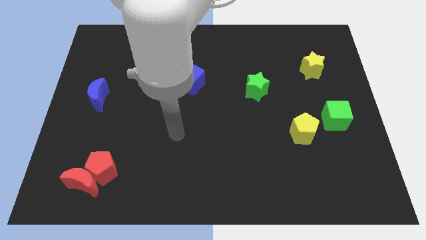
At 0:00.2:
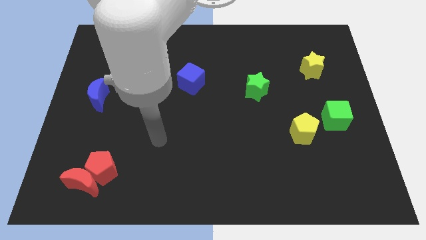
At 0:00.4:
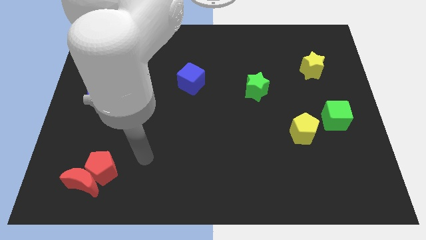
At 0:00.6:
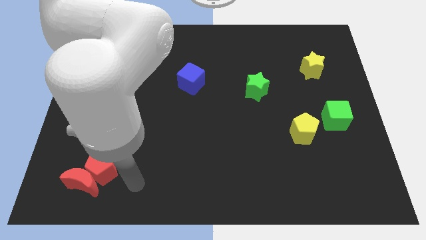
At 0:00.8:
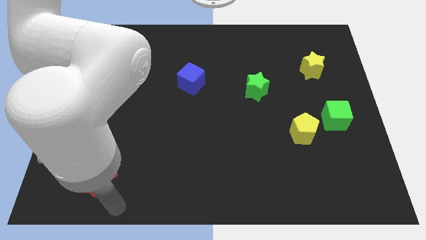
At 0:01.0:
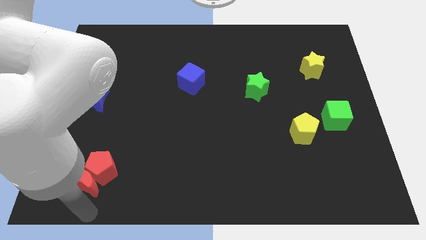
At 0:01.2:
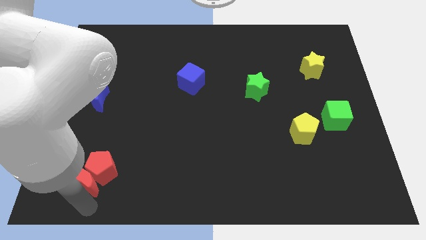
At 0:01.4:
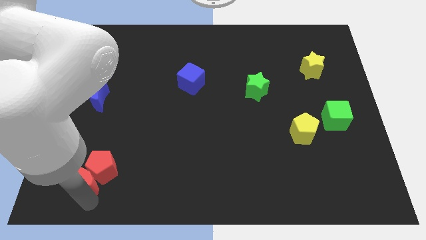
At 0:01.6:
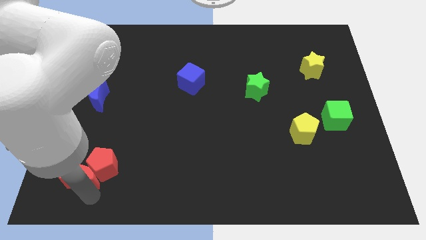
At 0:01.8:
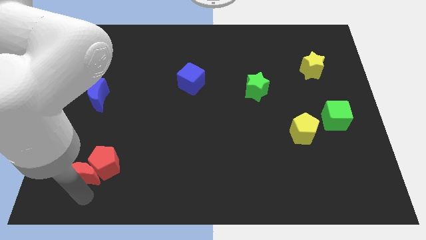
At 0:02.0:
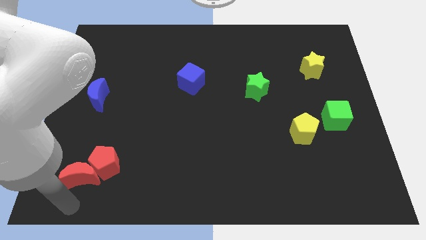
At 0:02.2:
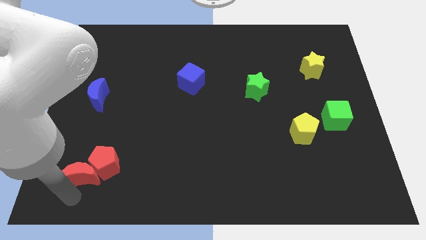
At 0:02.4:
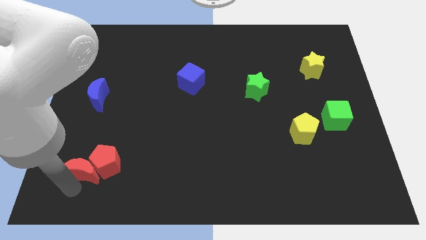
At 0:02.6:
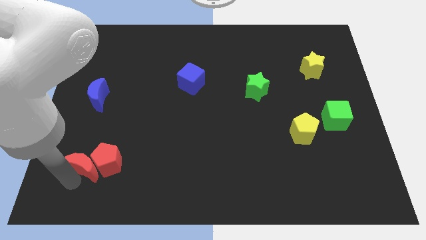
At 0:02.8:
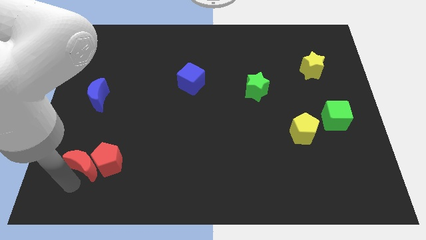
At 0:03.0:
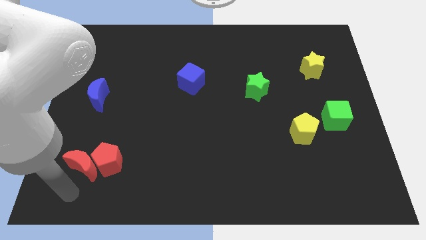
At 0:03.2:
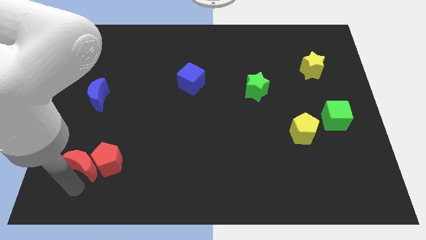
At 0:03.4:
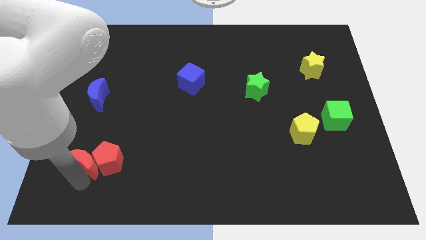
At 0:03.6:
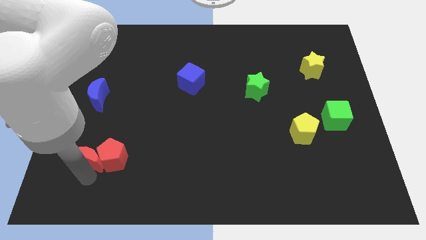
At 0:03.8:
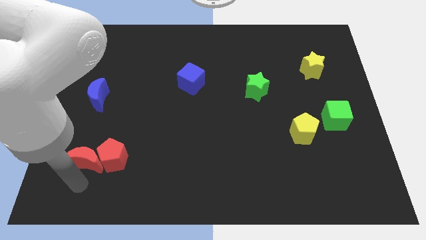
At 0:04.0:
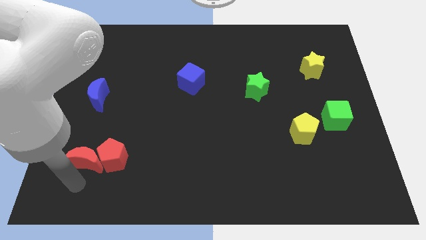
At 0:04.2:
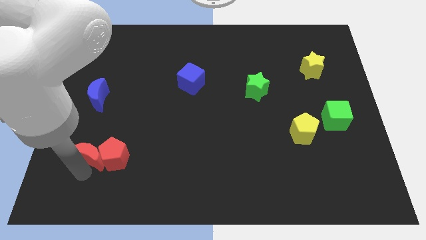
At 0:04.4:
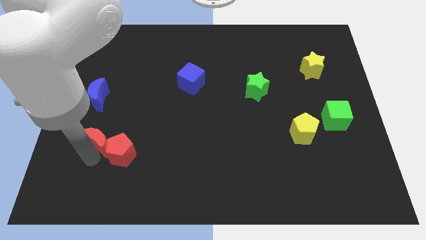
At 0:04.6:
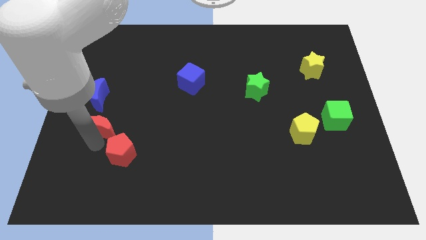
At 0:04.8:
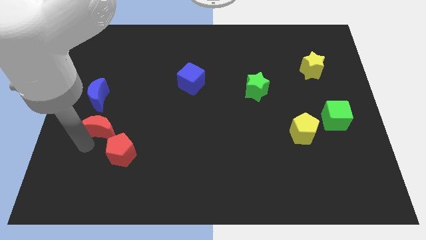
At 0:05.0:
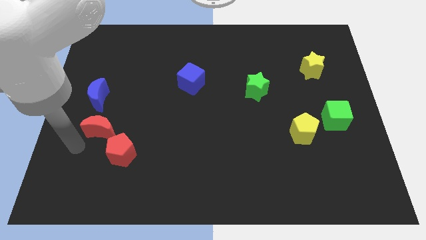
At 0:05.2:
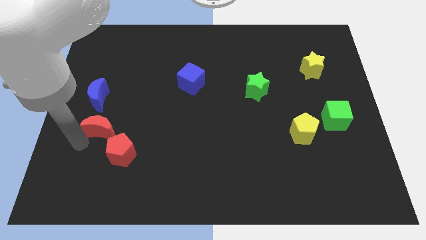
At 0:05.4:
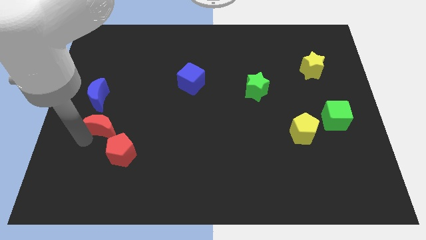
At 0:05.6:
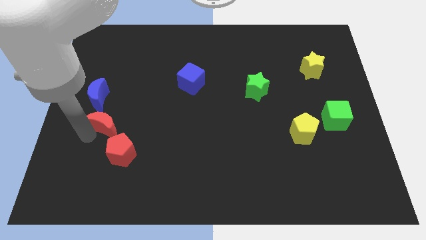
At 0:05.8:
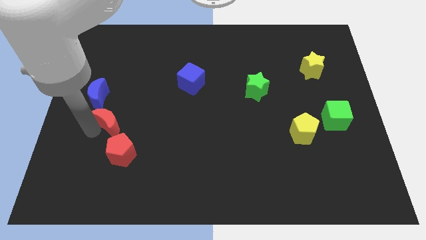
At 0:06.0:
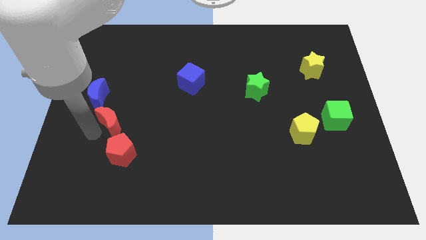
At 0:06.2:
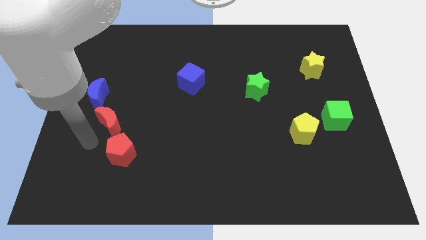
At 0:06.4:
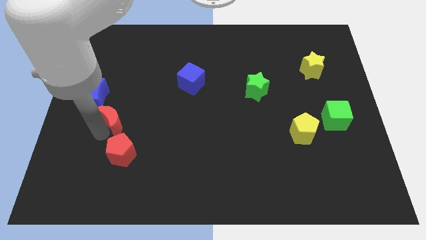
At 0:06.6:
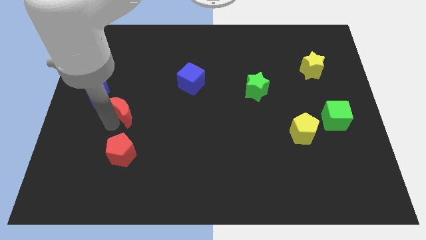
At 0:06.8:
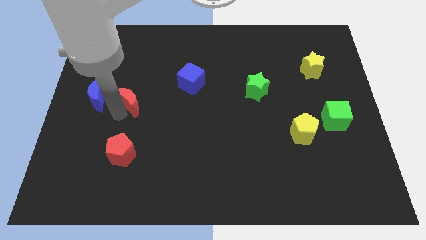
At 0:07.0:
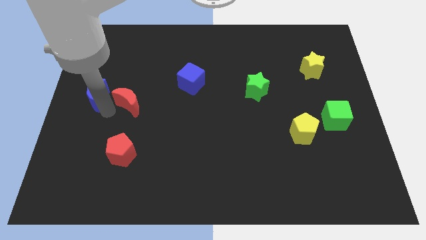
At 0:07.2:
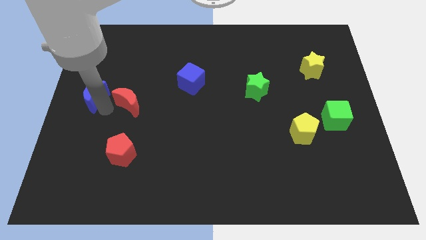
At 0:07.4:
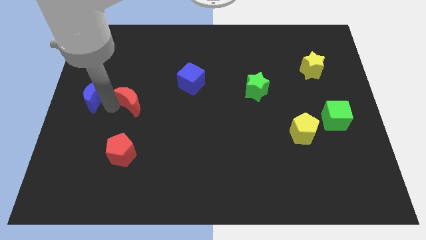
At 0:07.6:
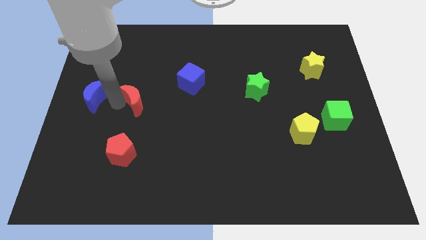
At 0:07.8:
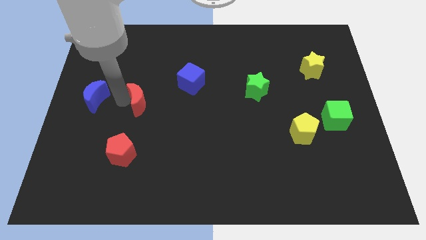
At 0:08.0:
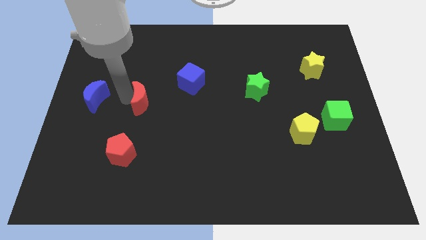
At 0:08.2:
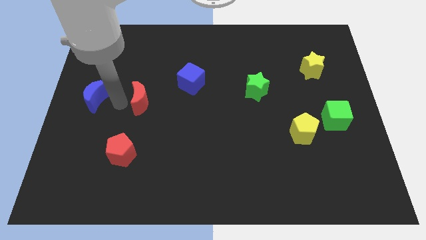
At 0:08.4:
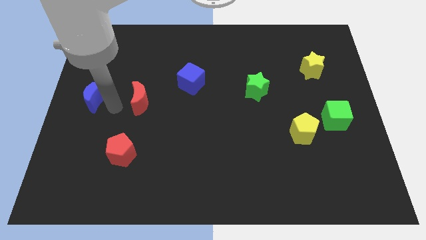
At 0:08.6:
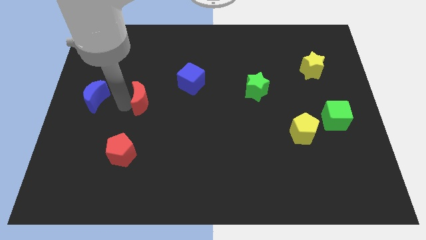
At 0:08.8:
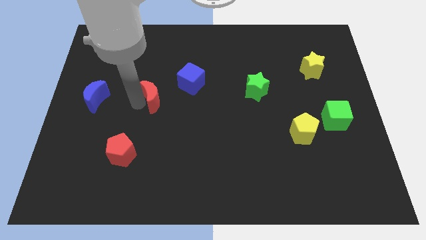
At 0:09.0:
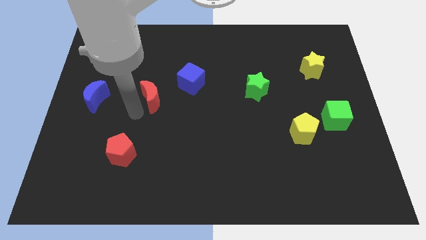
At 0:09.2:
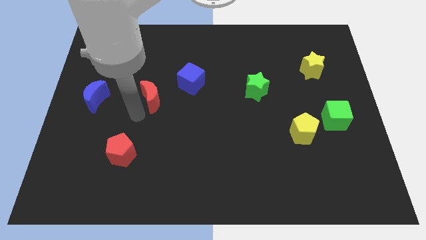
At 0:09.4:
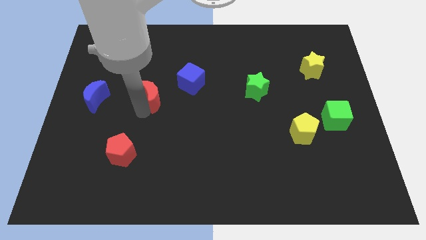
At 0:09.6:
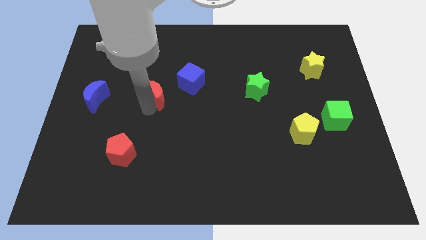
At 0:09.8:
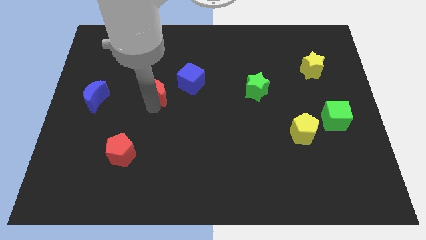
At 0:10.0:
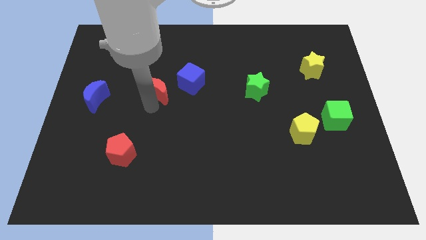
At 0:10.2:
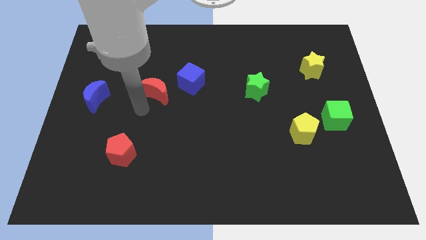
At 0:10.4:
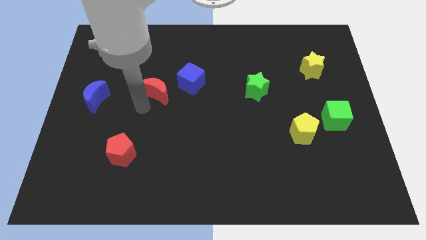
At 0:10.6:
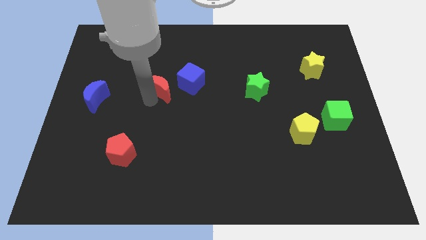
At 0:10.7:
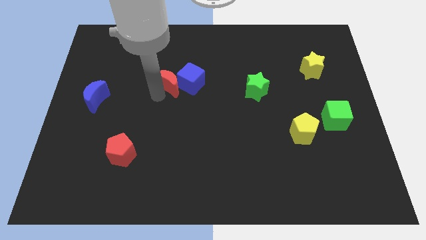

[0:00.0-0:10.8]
put the red moon to the top left of the blue cube

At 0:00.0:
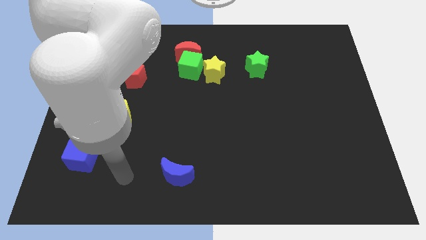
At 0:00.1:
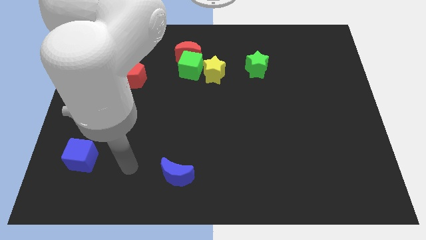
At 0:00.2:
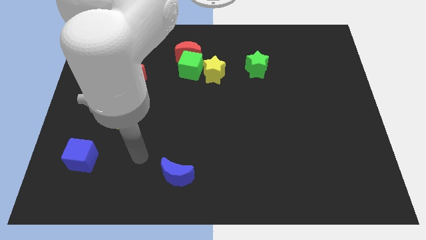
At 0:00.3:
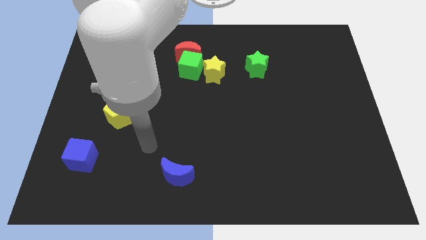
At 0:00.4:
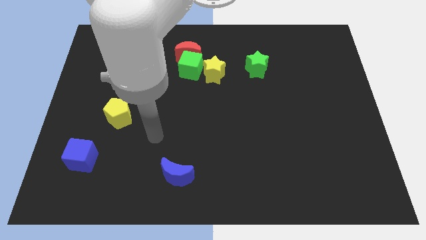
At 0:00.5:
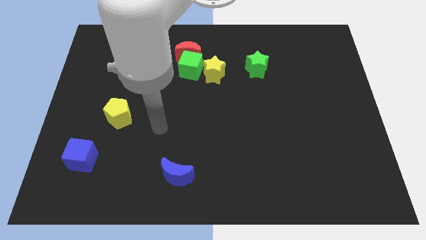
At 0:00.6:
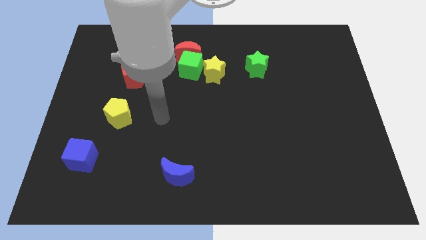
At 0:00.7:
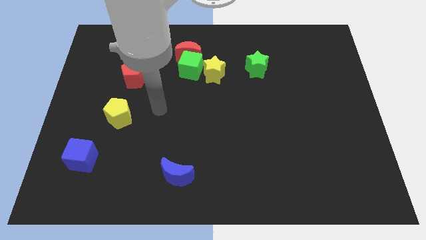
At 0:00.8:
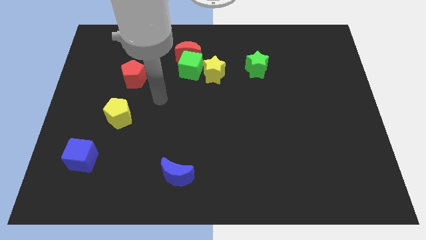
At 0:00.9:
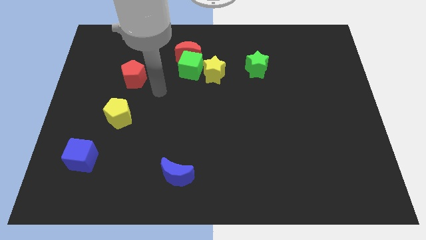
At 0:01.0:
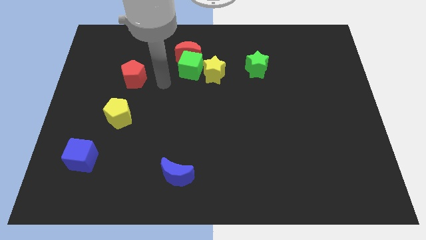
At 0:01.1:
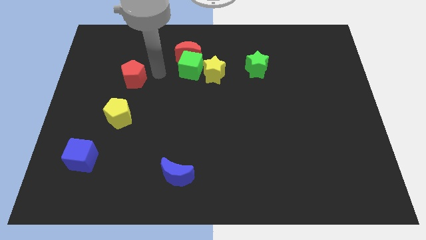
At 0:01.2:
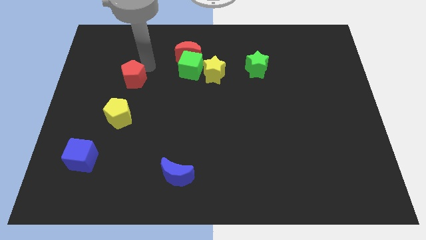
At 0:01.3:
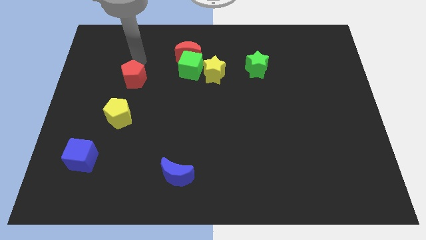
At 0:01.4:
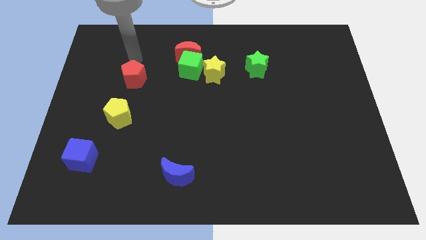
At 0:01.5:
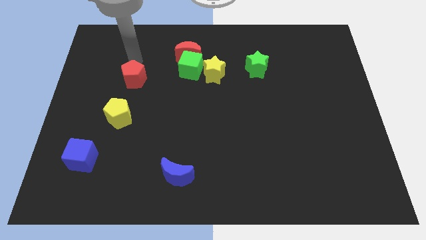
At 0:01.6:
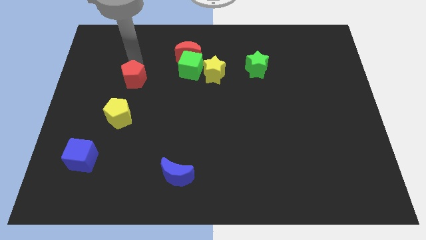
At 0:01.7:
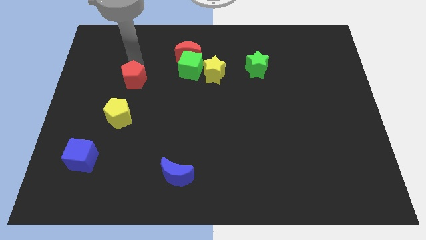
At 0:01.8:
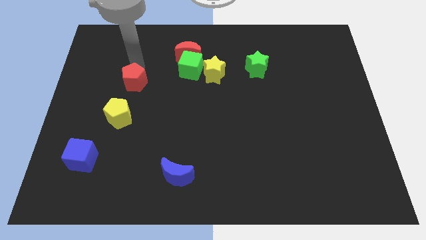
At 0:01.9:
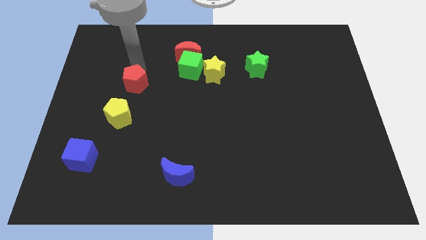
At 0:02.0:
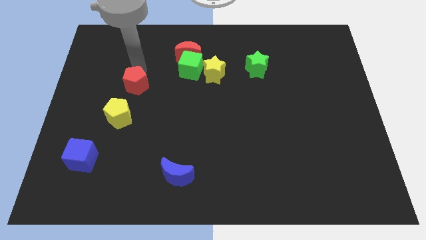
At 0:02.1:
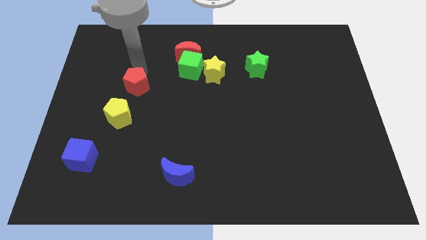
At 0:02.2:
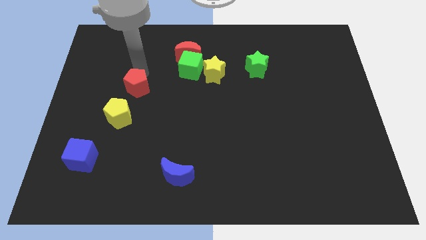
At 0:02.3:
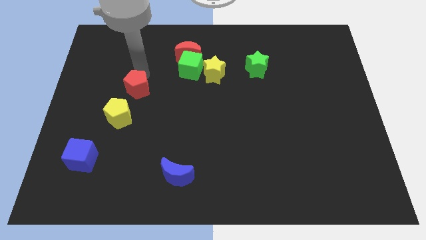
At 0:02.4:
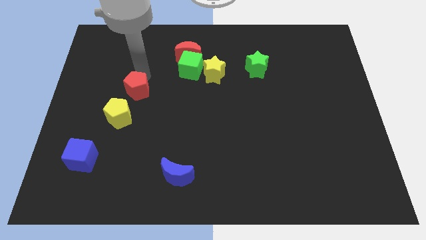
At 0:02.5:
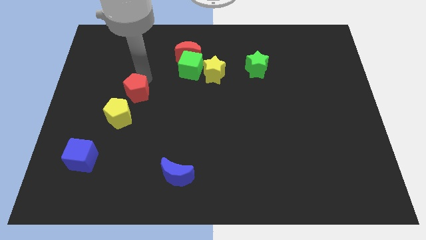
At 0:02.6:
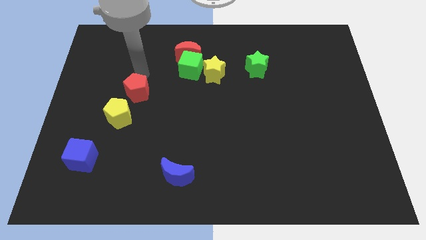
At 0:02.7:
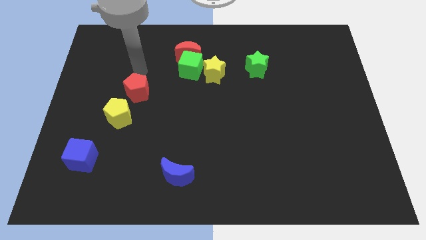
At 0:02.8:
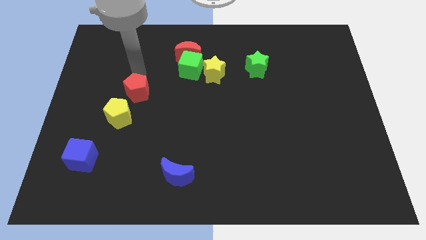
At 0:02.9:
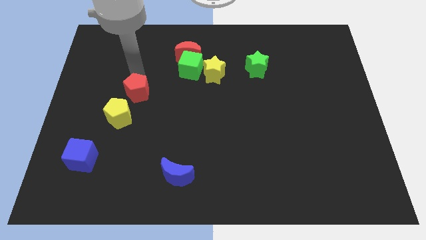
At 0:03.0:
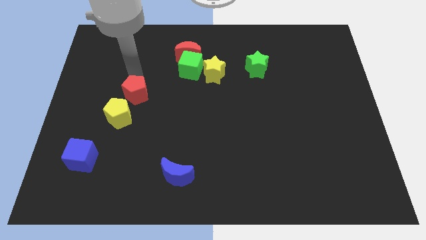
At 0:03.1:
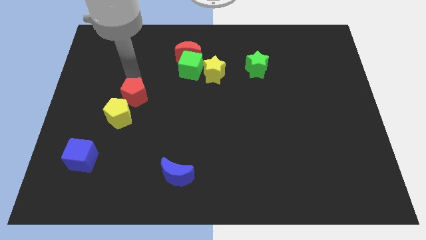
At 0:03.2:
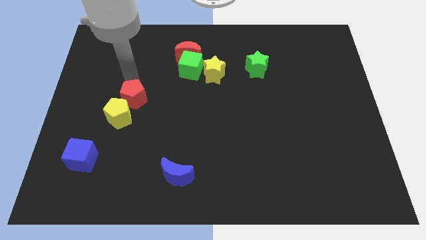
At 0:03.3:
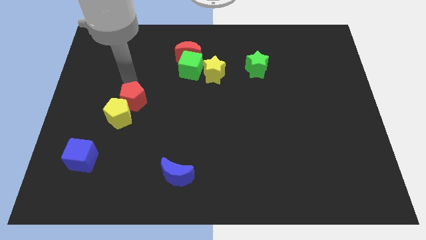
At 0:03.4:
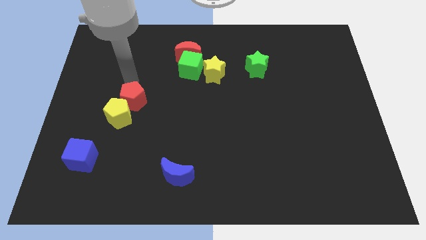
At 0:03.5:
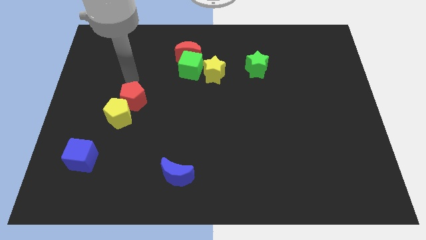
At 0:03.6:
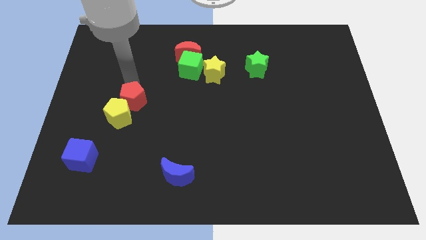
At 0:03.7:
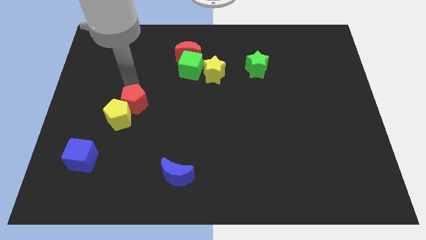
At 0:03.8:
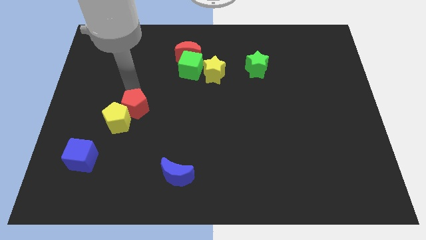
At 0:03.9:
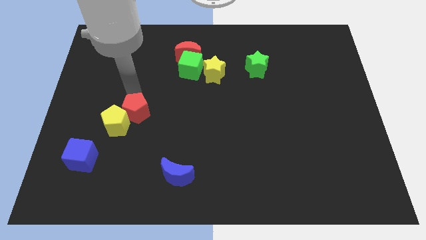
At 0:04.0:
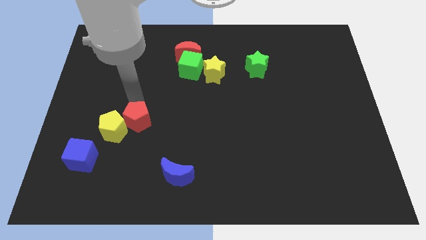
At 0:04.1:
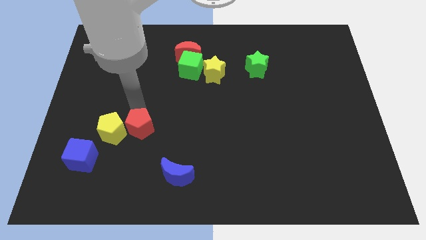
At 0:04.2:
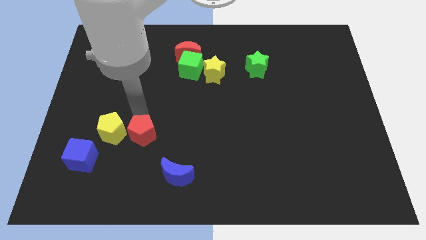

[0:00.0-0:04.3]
slide the red pentagon to the bottom right of the yellow pentagon
